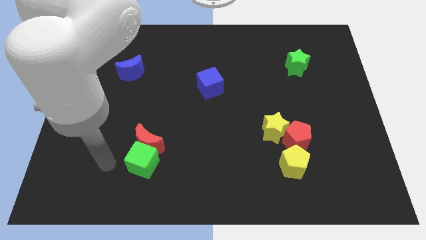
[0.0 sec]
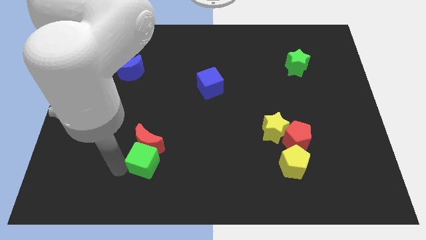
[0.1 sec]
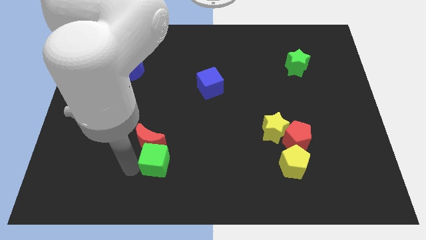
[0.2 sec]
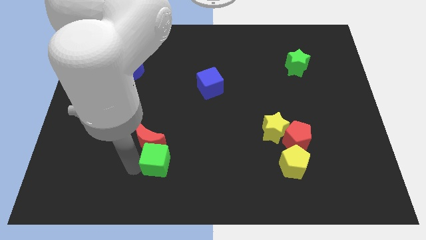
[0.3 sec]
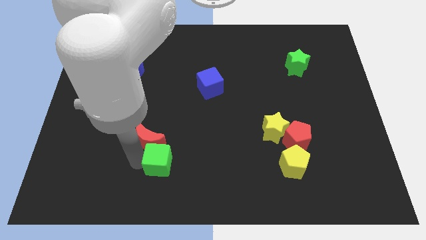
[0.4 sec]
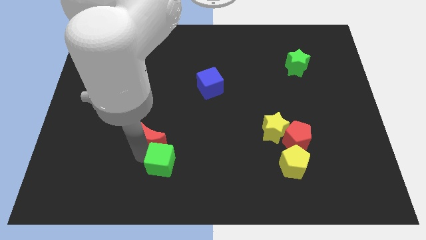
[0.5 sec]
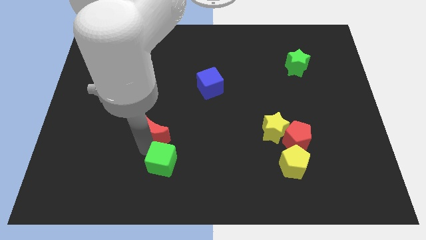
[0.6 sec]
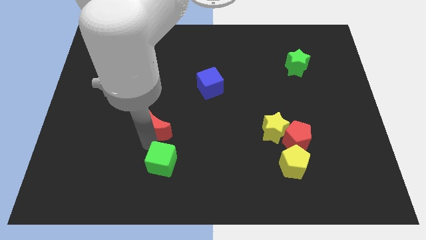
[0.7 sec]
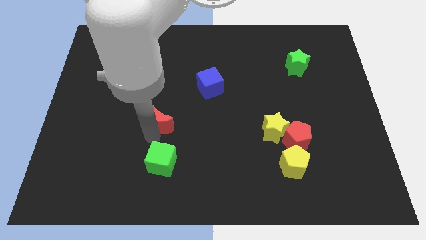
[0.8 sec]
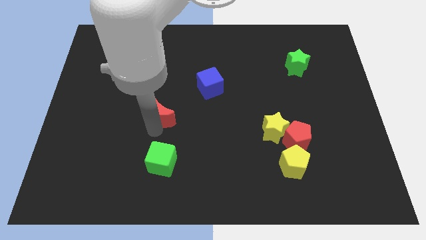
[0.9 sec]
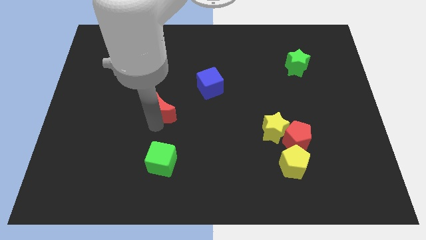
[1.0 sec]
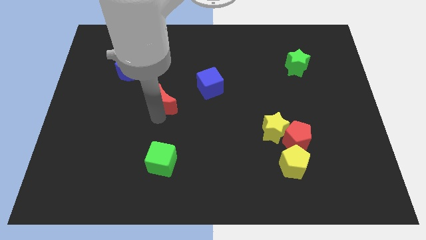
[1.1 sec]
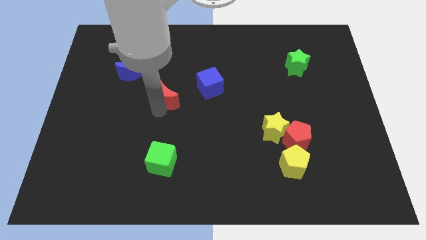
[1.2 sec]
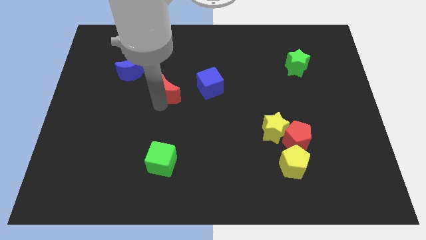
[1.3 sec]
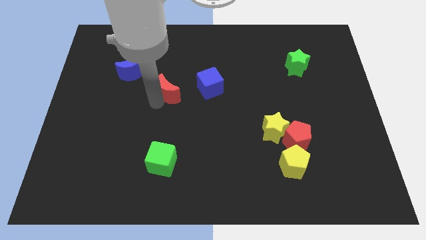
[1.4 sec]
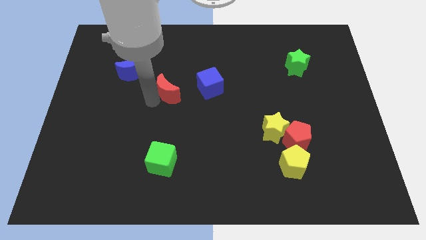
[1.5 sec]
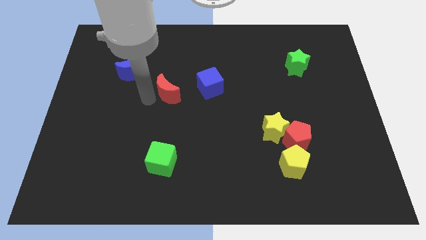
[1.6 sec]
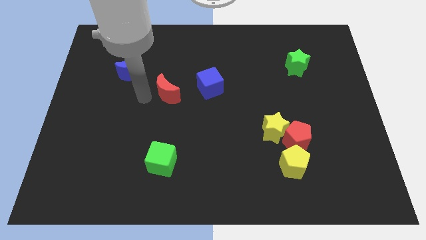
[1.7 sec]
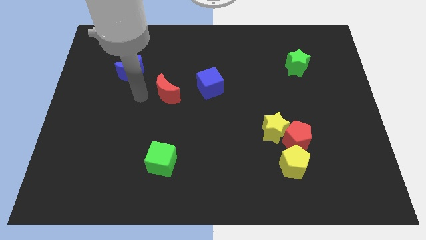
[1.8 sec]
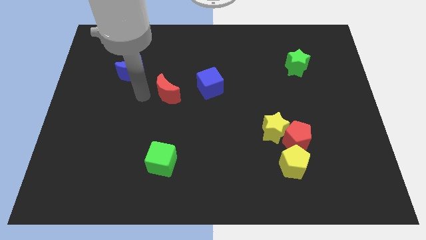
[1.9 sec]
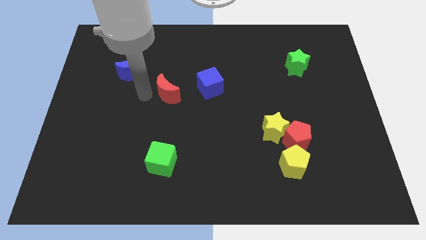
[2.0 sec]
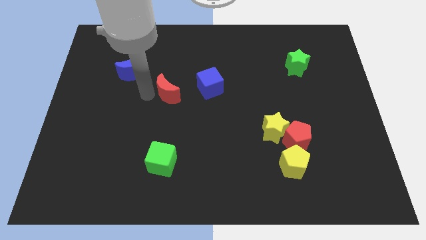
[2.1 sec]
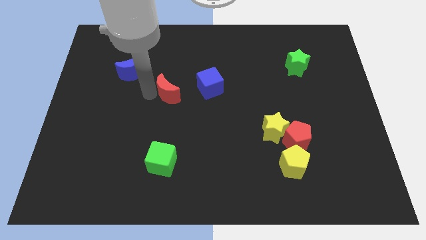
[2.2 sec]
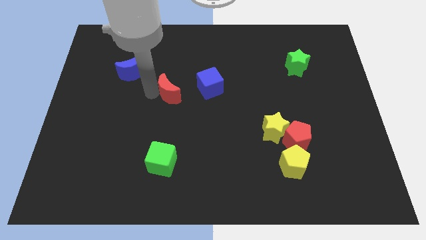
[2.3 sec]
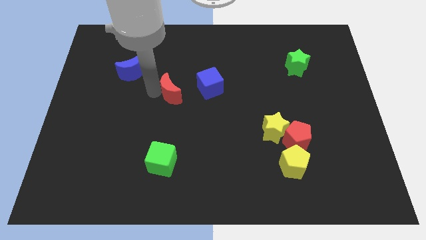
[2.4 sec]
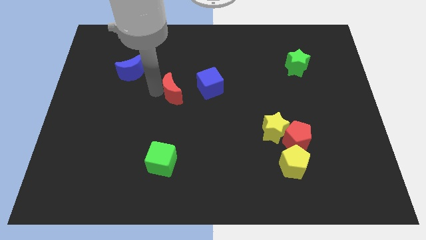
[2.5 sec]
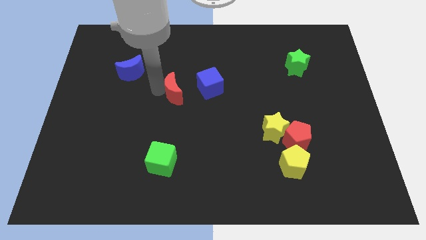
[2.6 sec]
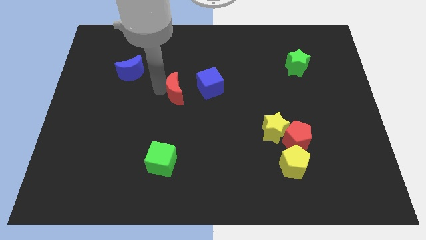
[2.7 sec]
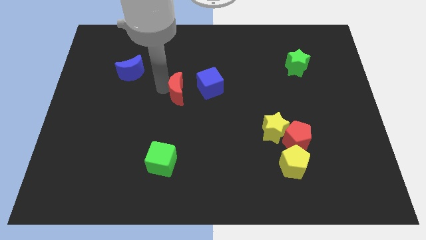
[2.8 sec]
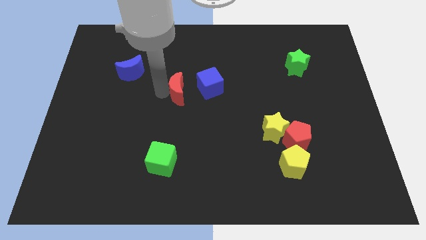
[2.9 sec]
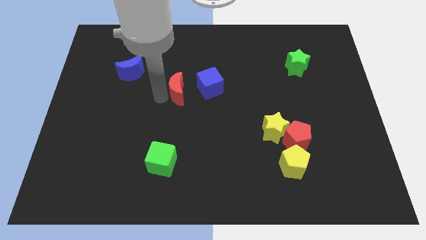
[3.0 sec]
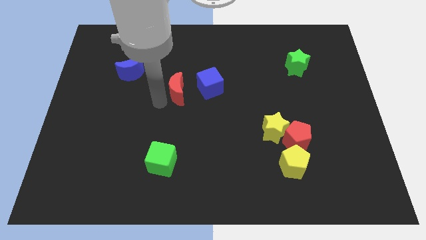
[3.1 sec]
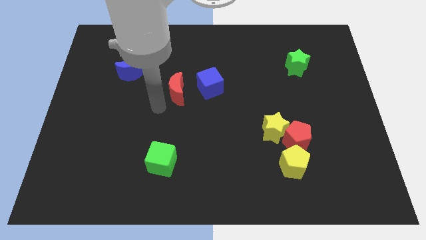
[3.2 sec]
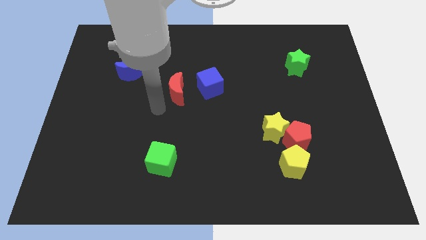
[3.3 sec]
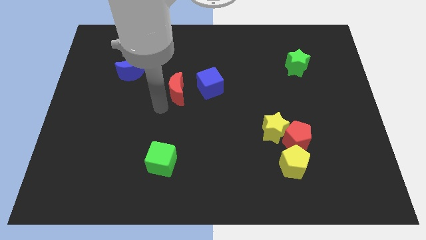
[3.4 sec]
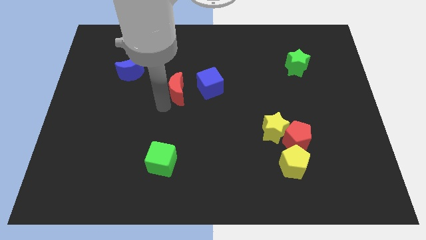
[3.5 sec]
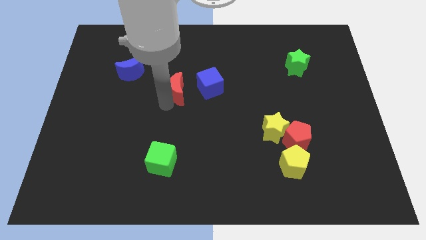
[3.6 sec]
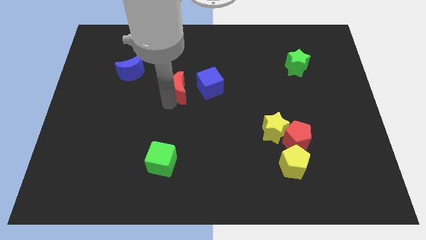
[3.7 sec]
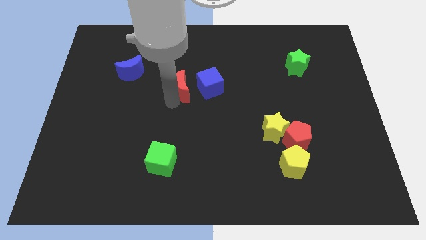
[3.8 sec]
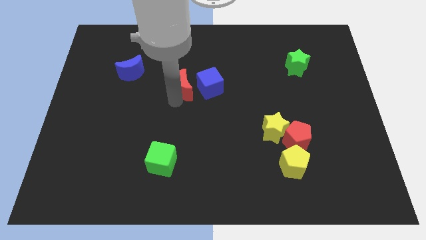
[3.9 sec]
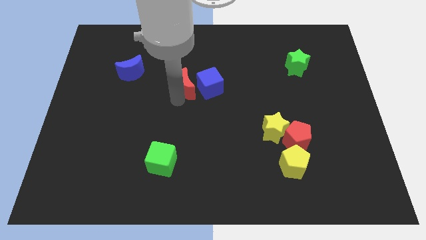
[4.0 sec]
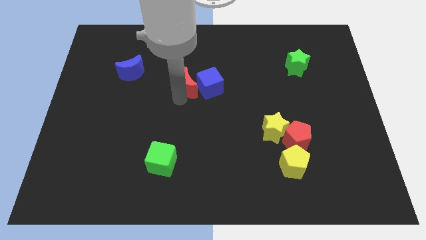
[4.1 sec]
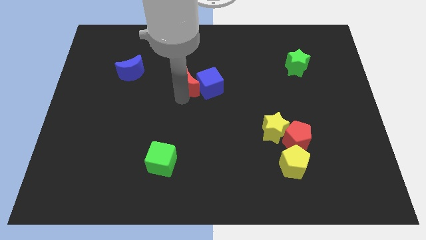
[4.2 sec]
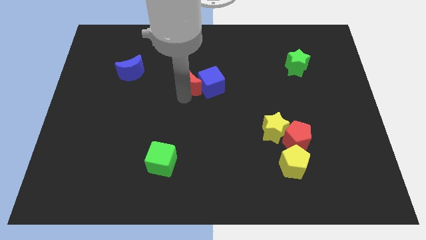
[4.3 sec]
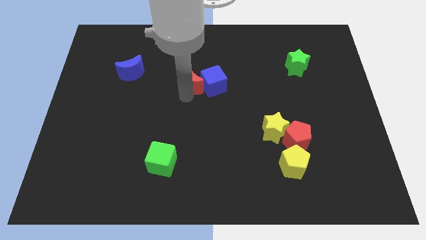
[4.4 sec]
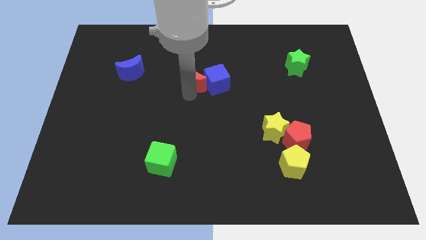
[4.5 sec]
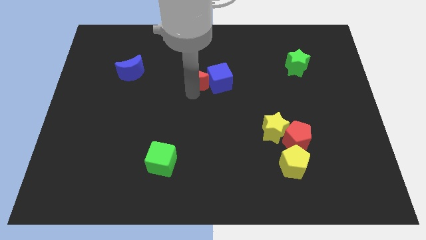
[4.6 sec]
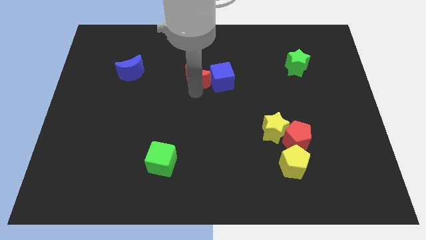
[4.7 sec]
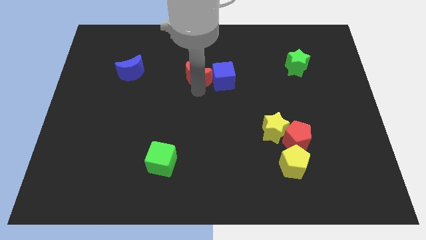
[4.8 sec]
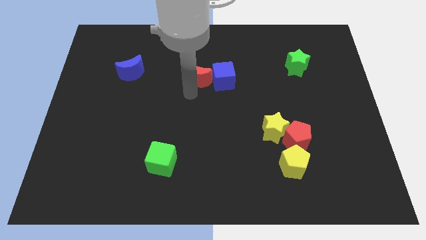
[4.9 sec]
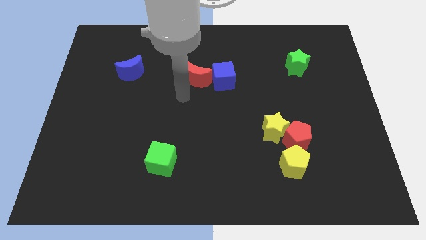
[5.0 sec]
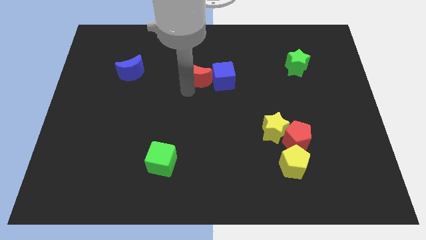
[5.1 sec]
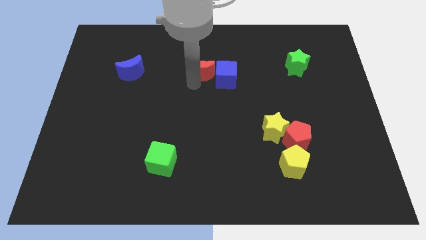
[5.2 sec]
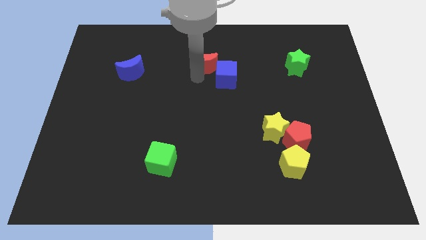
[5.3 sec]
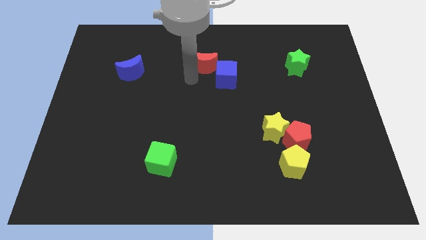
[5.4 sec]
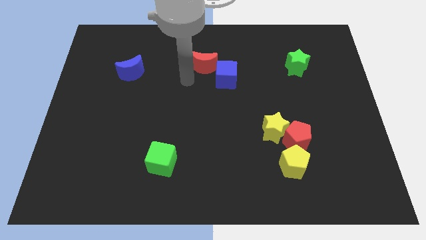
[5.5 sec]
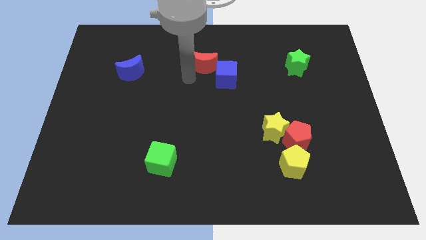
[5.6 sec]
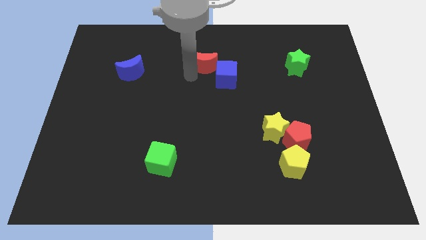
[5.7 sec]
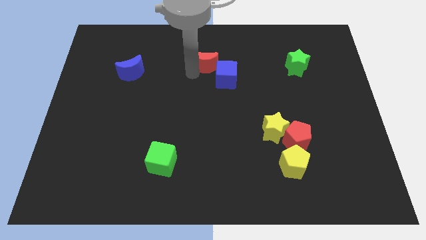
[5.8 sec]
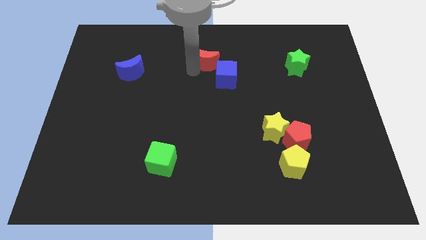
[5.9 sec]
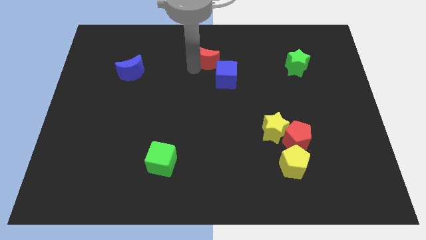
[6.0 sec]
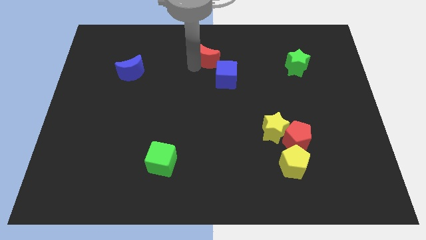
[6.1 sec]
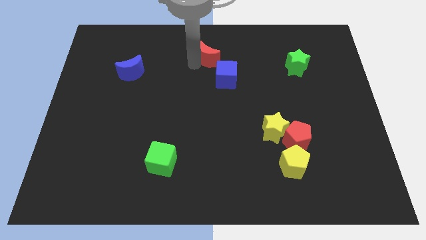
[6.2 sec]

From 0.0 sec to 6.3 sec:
push the red moon above the blue cube

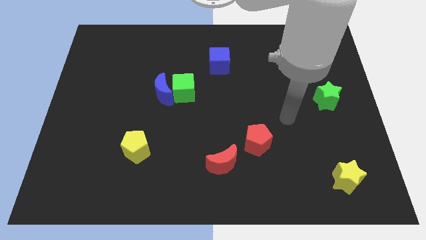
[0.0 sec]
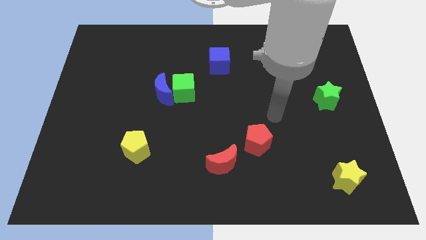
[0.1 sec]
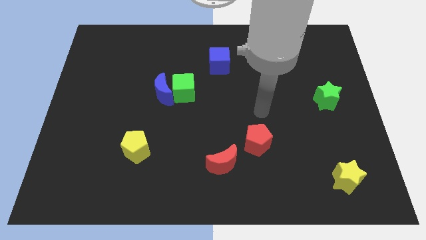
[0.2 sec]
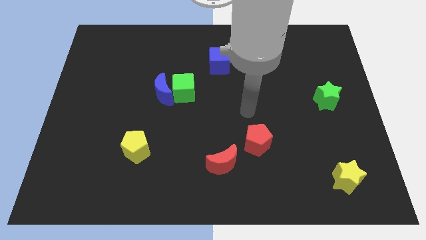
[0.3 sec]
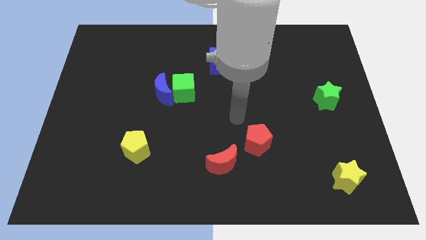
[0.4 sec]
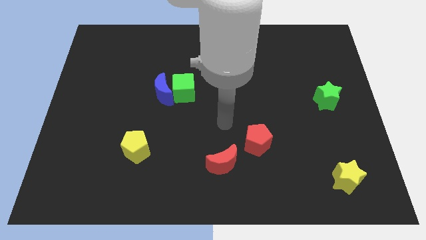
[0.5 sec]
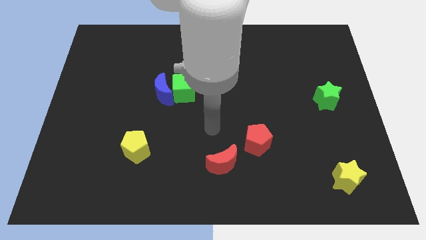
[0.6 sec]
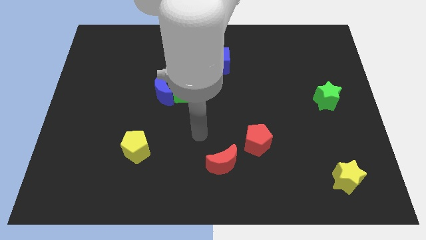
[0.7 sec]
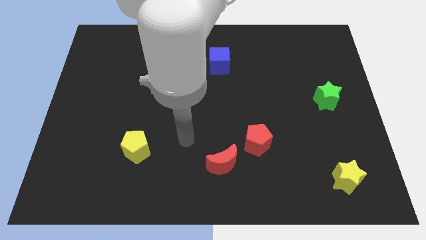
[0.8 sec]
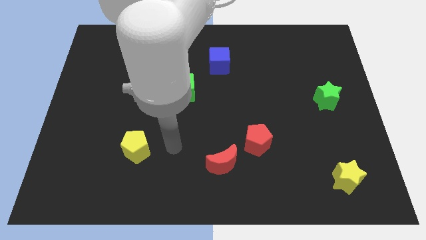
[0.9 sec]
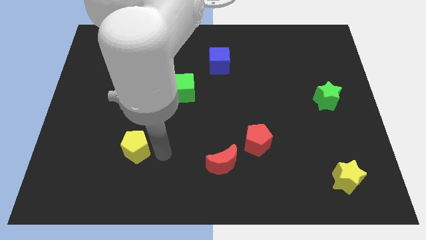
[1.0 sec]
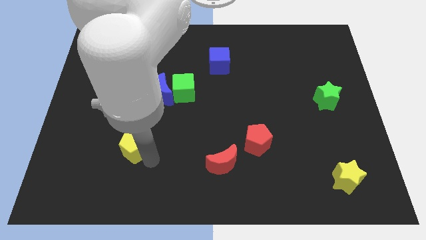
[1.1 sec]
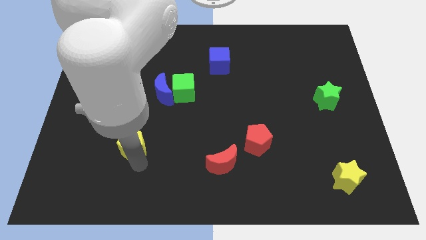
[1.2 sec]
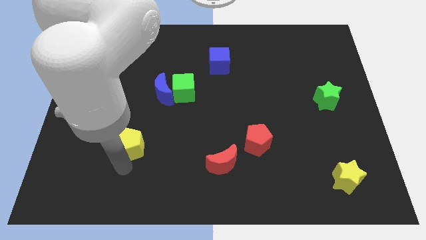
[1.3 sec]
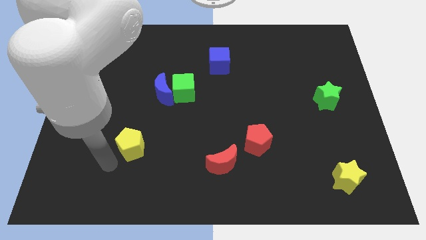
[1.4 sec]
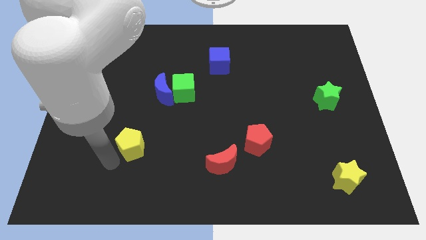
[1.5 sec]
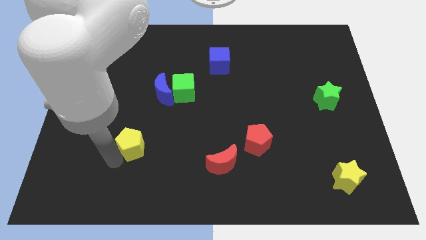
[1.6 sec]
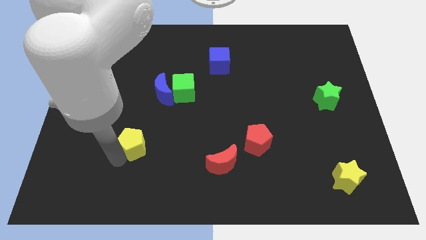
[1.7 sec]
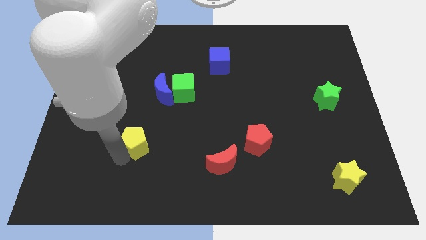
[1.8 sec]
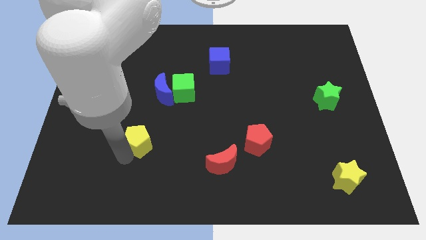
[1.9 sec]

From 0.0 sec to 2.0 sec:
put the yellow pentagon below the blue moon
